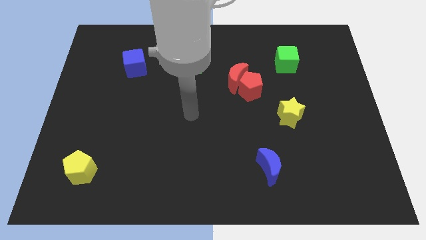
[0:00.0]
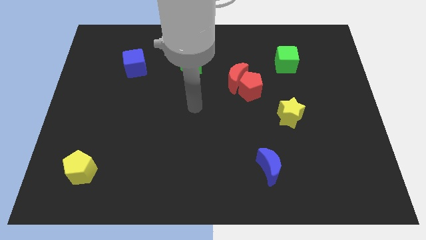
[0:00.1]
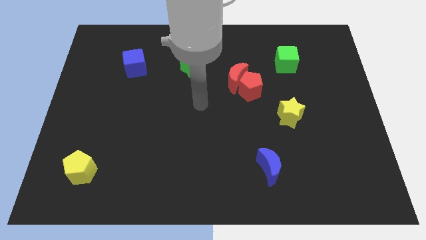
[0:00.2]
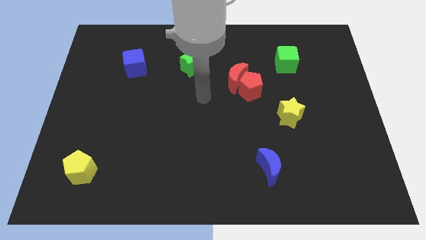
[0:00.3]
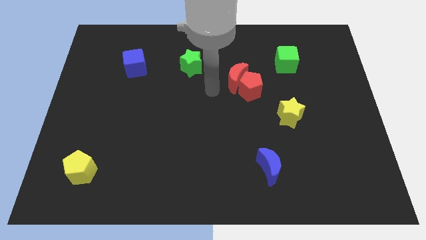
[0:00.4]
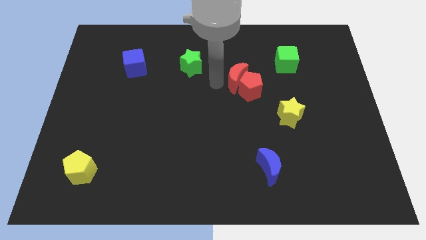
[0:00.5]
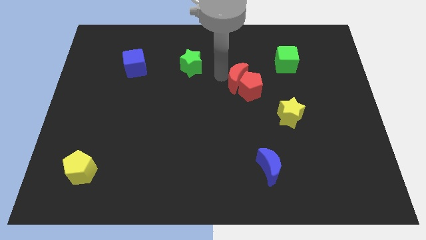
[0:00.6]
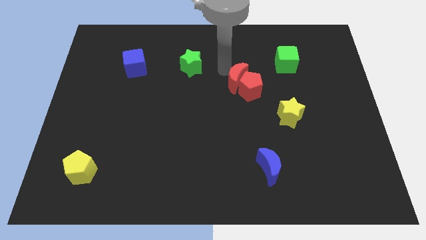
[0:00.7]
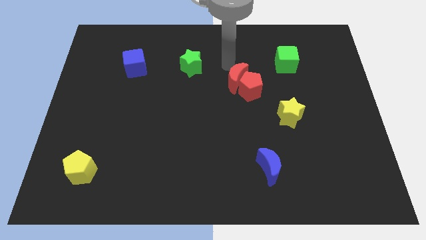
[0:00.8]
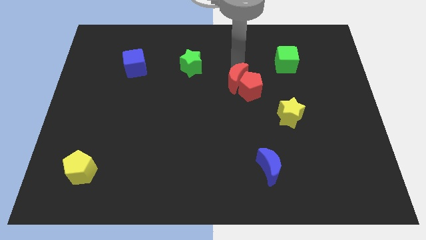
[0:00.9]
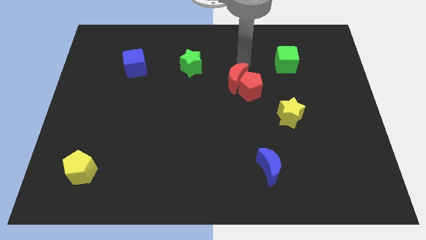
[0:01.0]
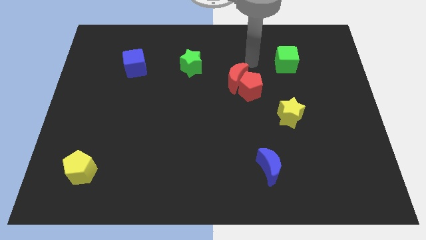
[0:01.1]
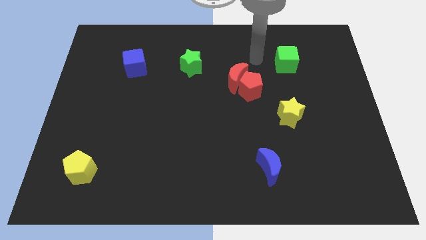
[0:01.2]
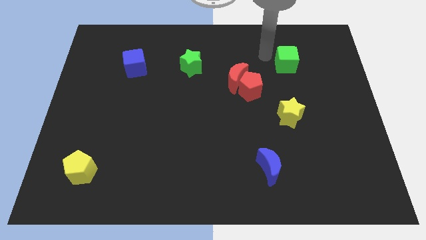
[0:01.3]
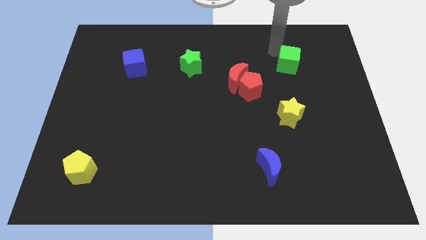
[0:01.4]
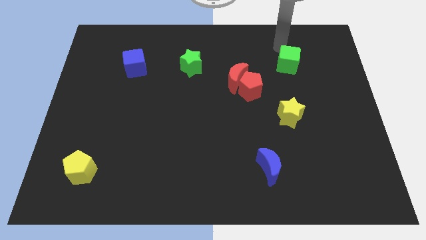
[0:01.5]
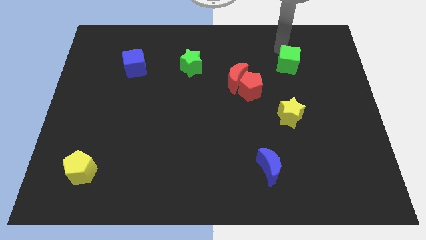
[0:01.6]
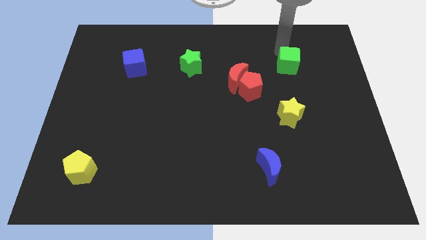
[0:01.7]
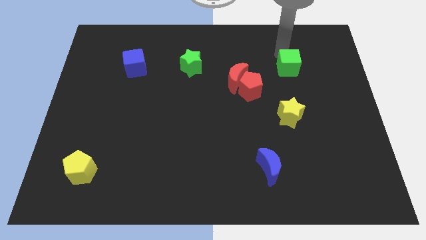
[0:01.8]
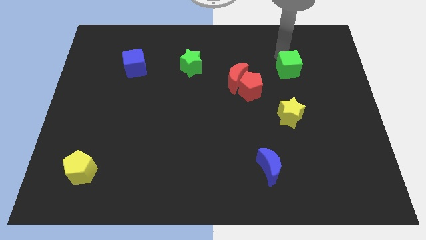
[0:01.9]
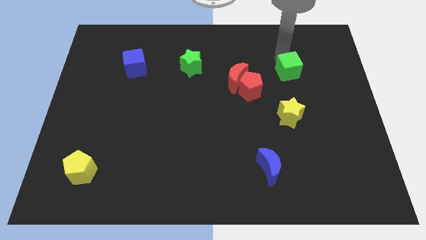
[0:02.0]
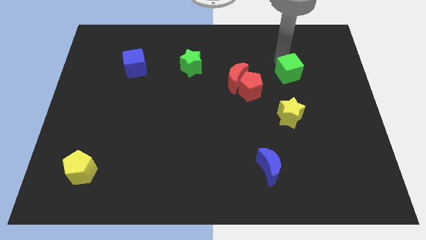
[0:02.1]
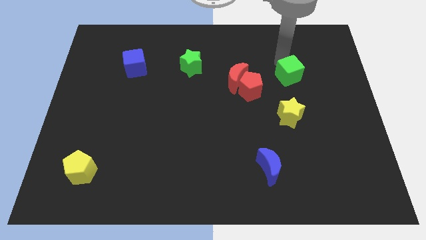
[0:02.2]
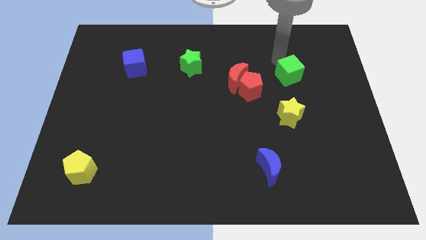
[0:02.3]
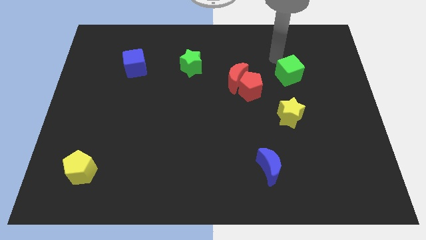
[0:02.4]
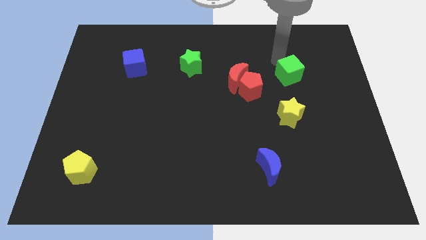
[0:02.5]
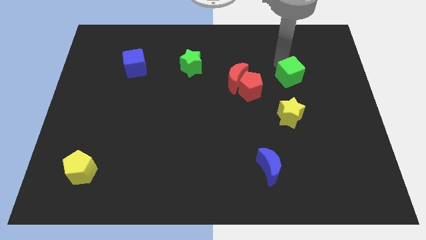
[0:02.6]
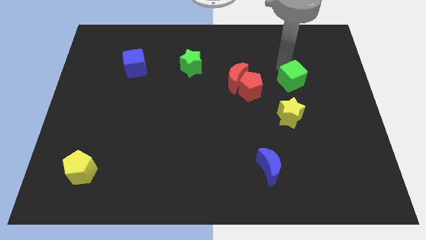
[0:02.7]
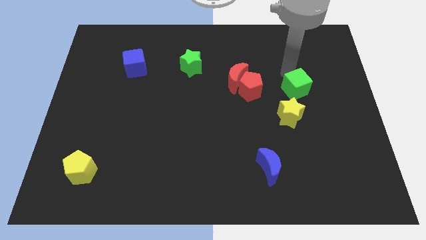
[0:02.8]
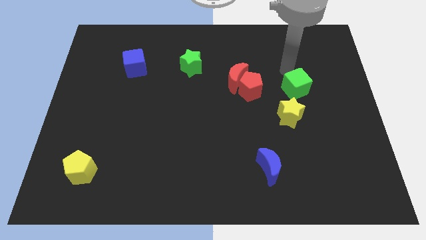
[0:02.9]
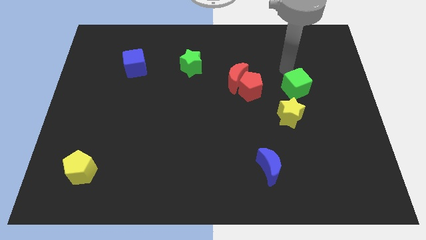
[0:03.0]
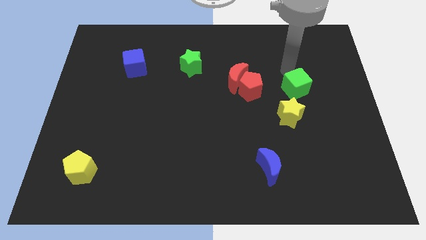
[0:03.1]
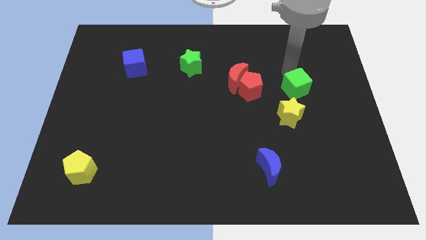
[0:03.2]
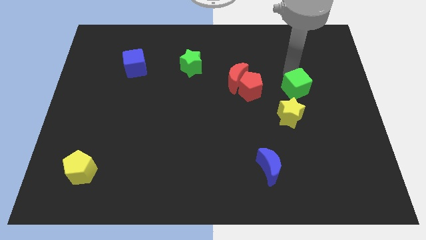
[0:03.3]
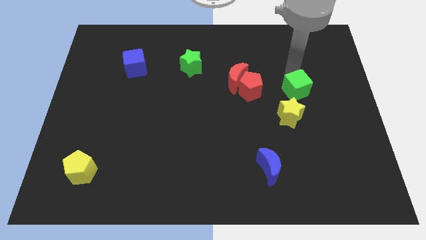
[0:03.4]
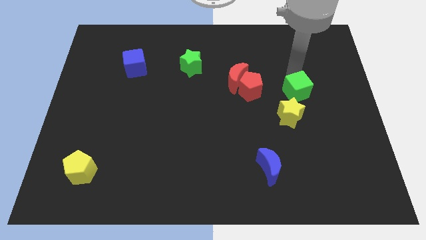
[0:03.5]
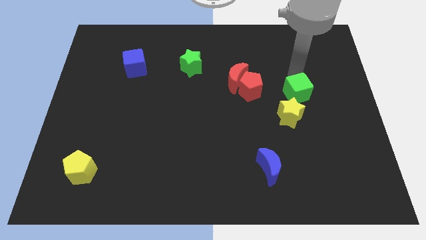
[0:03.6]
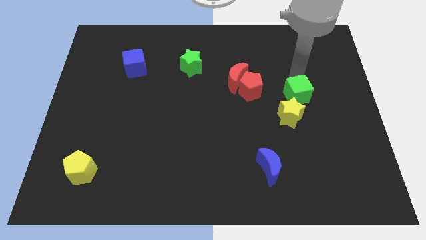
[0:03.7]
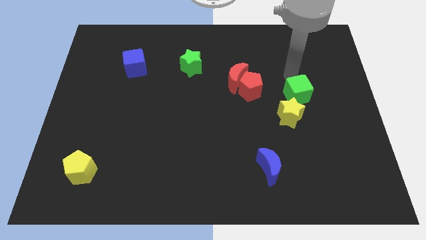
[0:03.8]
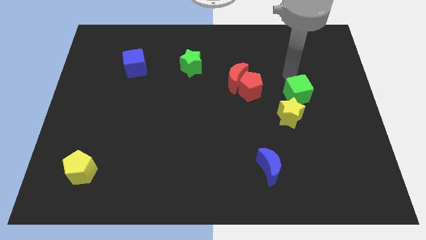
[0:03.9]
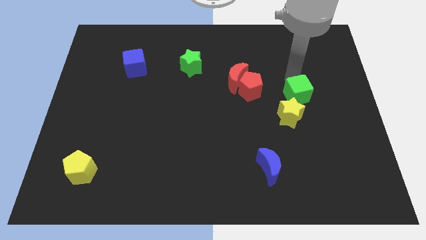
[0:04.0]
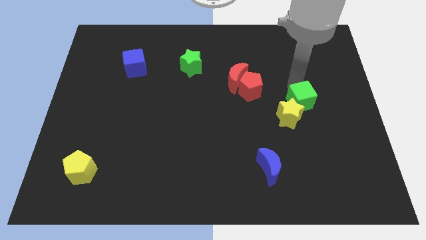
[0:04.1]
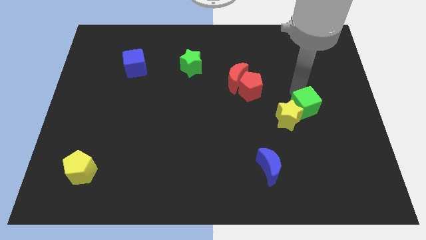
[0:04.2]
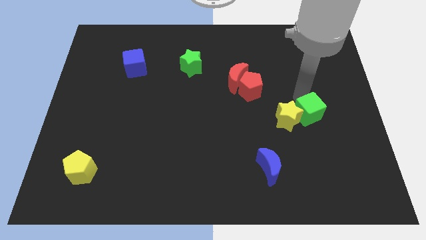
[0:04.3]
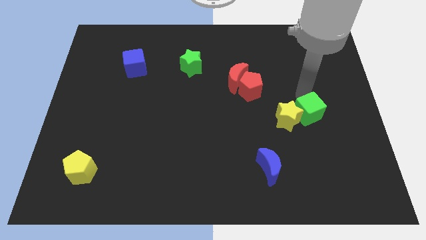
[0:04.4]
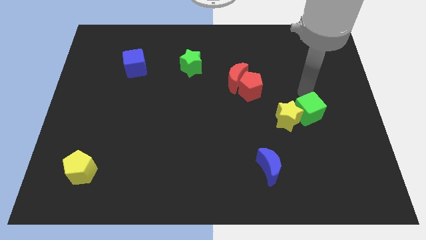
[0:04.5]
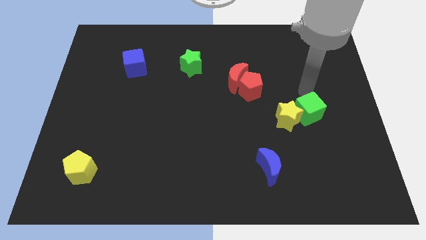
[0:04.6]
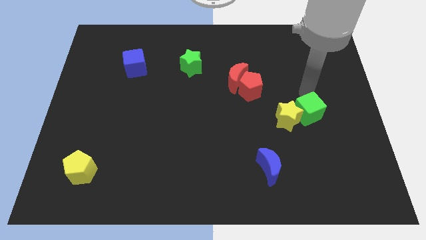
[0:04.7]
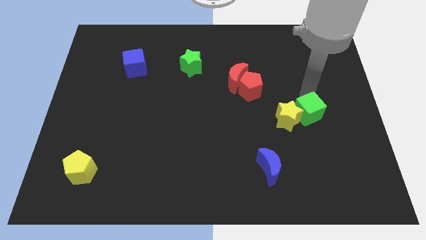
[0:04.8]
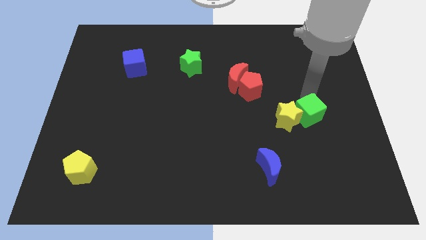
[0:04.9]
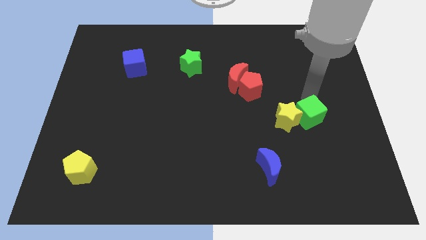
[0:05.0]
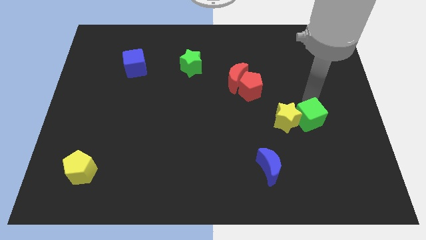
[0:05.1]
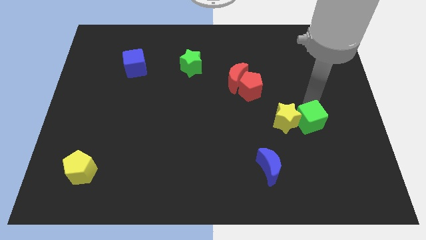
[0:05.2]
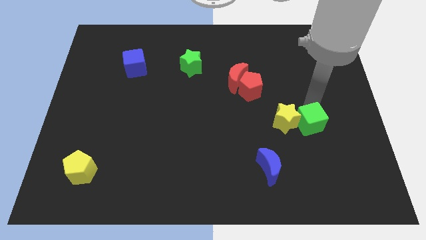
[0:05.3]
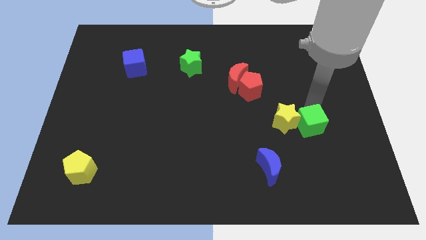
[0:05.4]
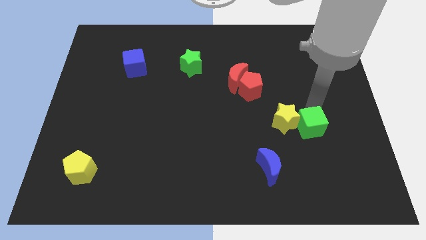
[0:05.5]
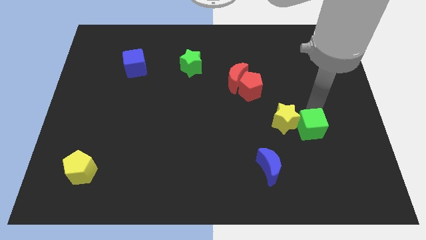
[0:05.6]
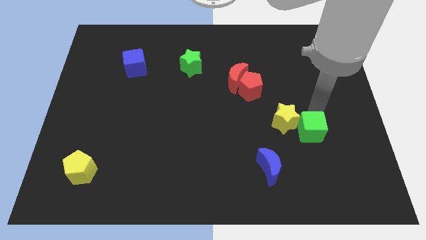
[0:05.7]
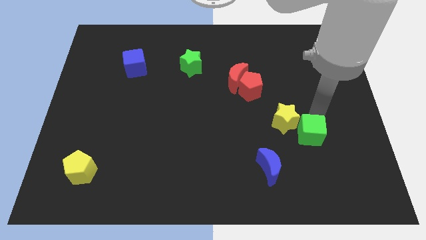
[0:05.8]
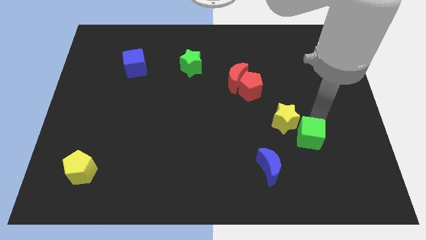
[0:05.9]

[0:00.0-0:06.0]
put the green cube to the bottom of the yellow star
